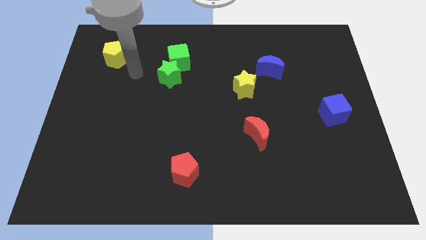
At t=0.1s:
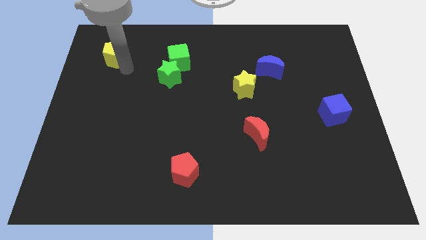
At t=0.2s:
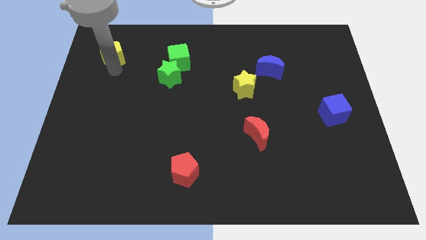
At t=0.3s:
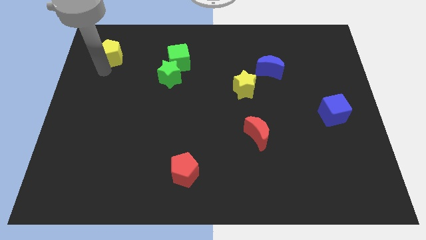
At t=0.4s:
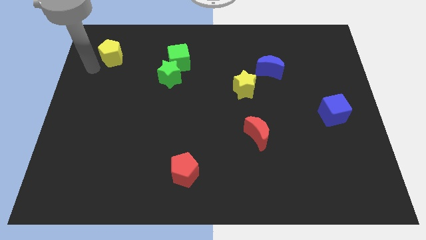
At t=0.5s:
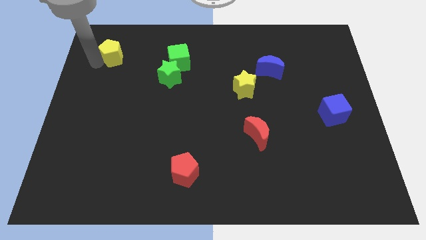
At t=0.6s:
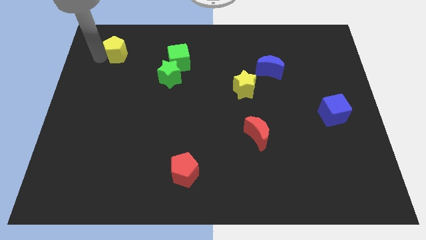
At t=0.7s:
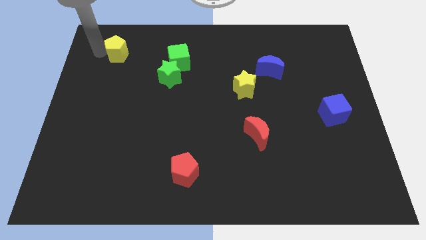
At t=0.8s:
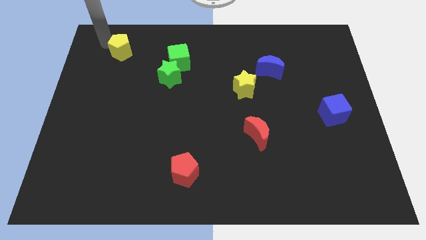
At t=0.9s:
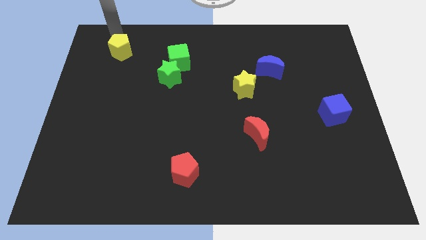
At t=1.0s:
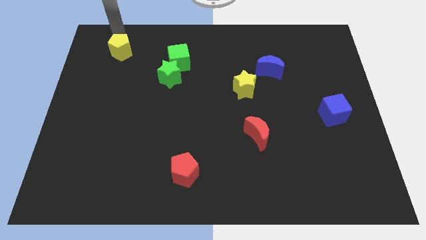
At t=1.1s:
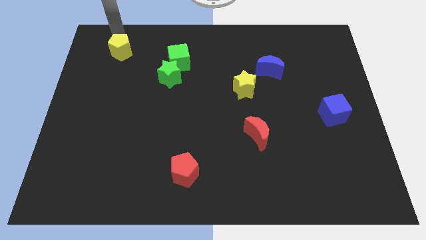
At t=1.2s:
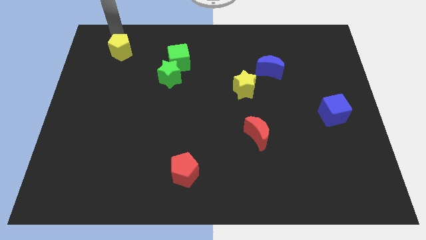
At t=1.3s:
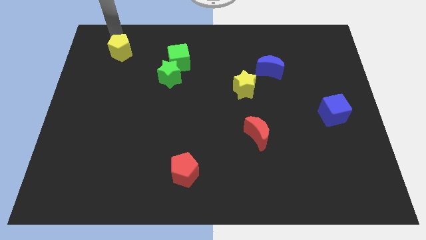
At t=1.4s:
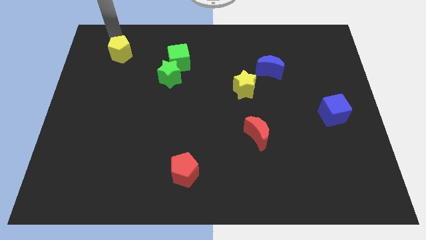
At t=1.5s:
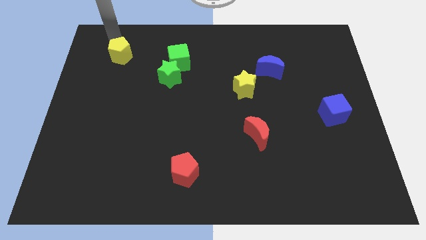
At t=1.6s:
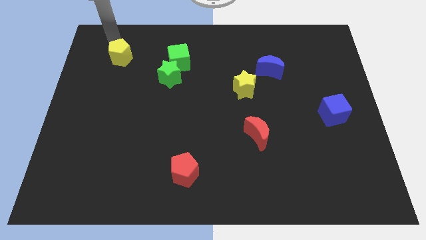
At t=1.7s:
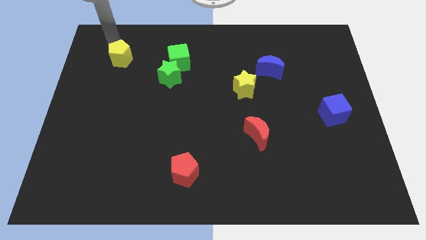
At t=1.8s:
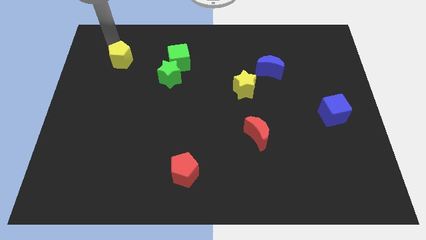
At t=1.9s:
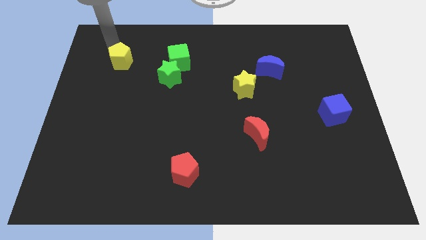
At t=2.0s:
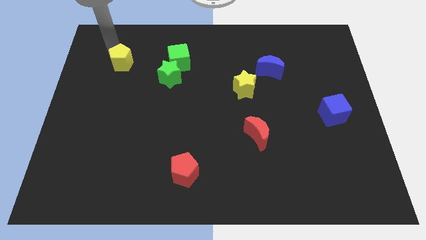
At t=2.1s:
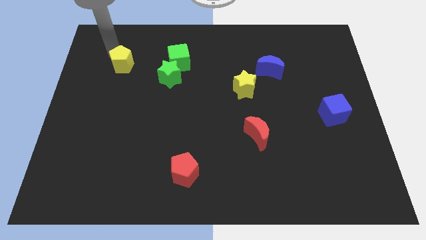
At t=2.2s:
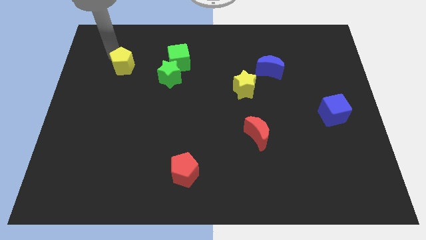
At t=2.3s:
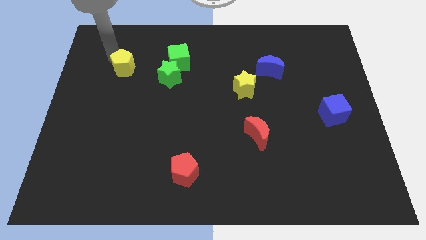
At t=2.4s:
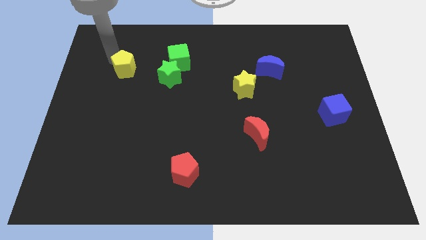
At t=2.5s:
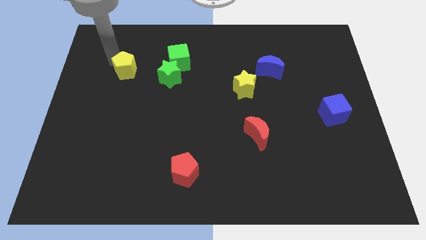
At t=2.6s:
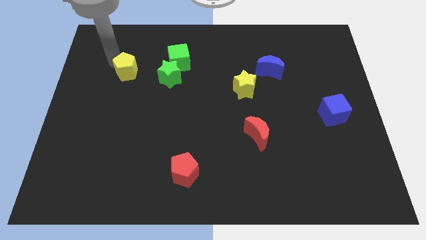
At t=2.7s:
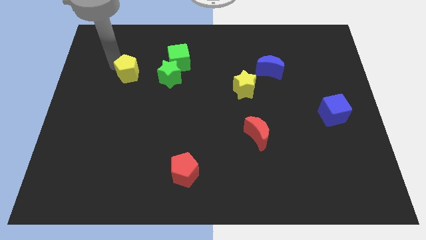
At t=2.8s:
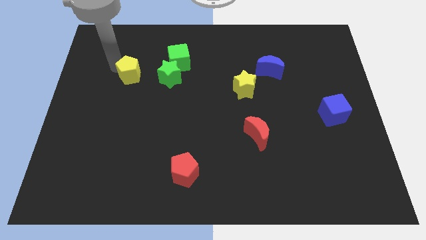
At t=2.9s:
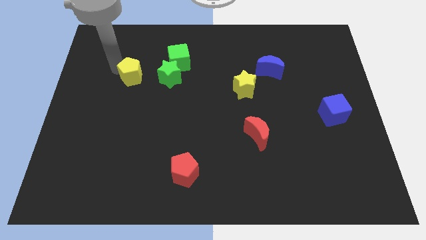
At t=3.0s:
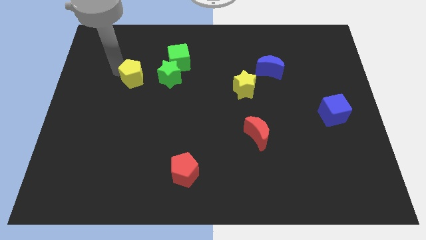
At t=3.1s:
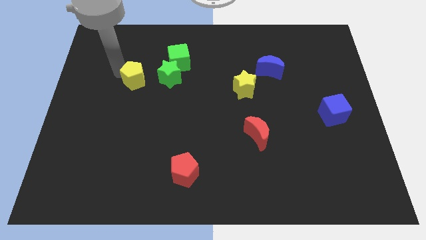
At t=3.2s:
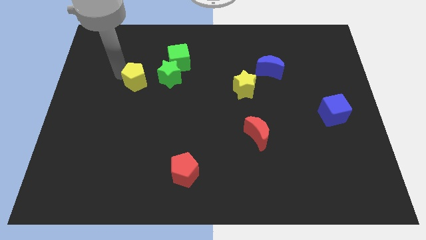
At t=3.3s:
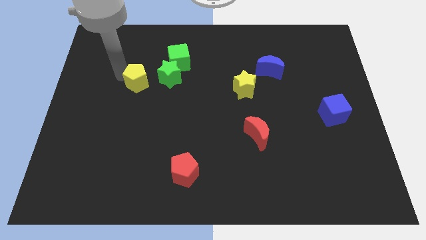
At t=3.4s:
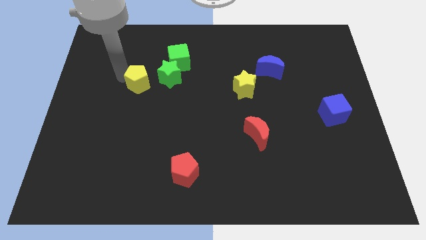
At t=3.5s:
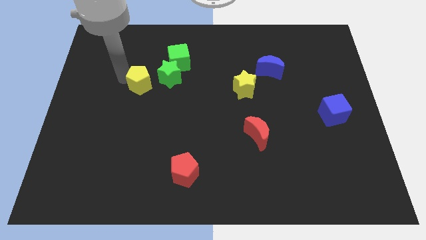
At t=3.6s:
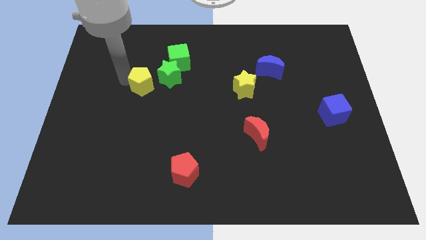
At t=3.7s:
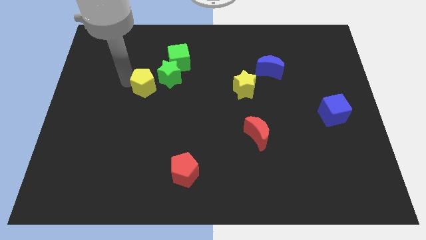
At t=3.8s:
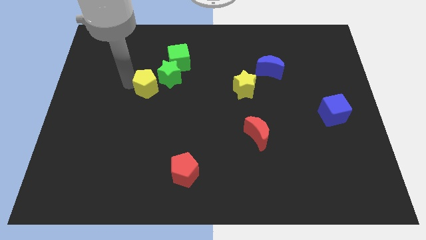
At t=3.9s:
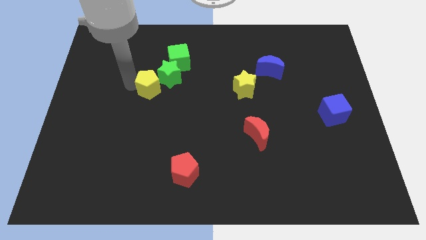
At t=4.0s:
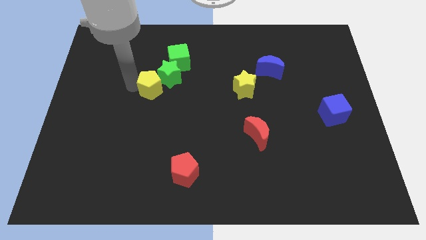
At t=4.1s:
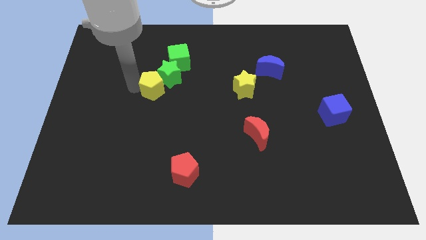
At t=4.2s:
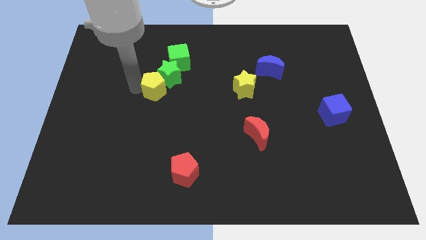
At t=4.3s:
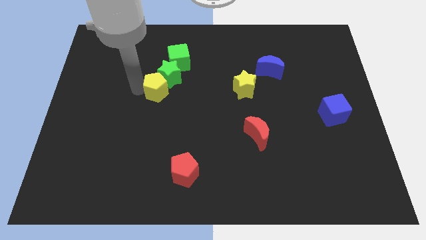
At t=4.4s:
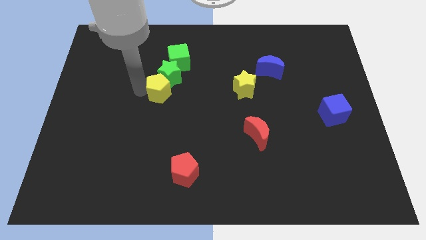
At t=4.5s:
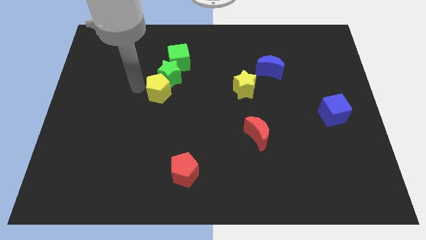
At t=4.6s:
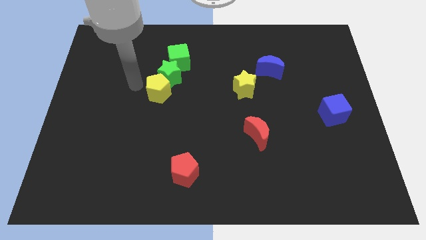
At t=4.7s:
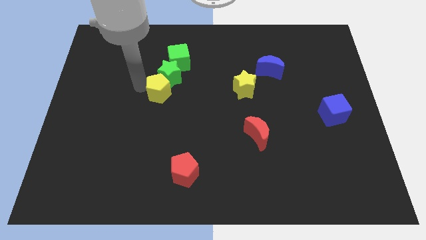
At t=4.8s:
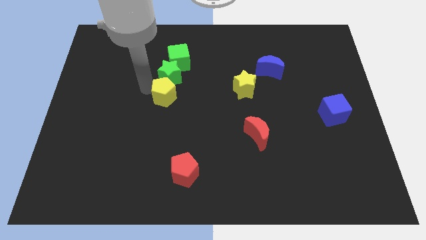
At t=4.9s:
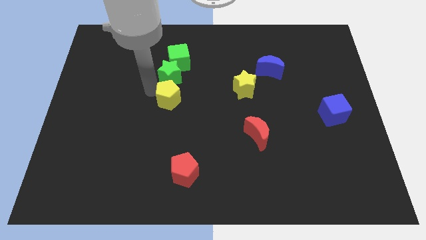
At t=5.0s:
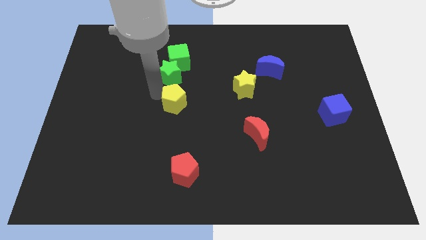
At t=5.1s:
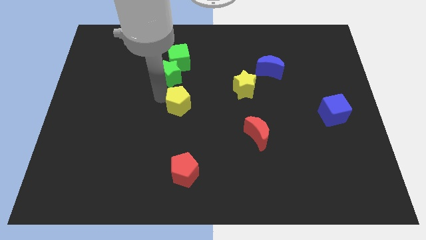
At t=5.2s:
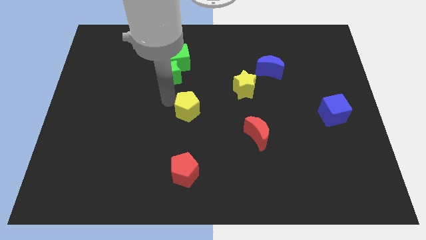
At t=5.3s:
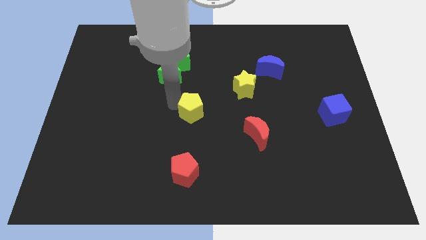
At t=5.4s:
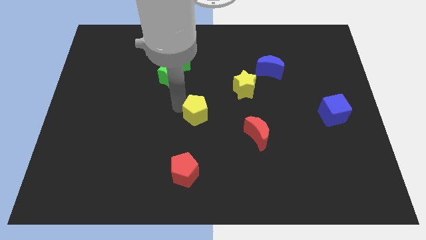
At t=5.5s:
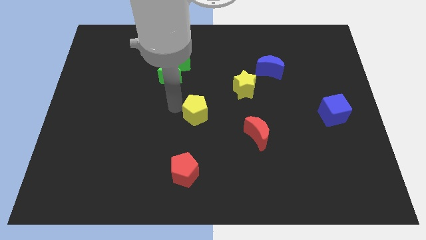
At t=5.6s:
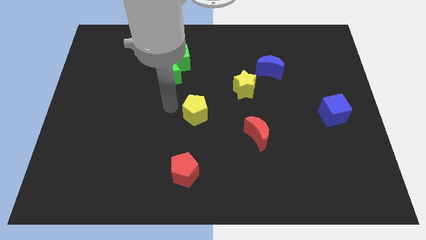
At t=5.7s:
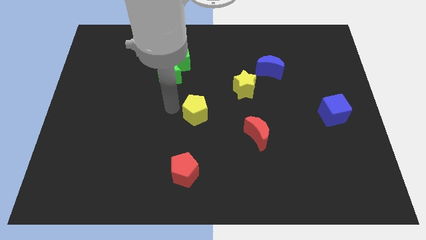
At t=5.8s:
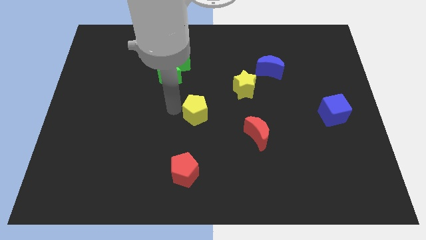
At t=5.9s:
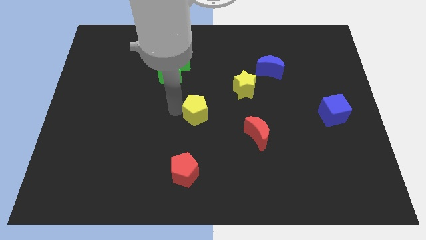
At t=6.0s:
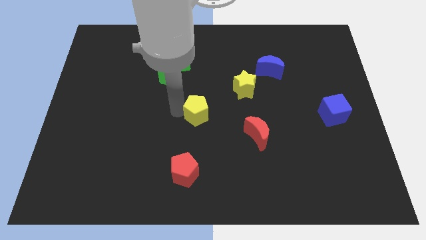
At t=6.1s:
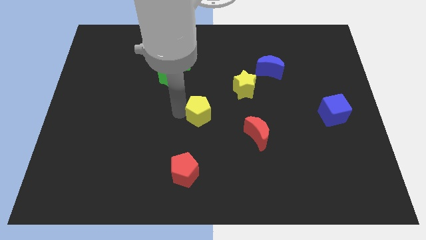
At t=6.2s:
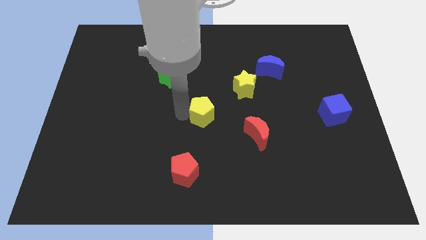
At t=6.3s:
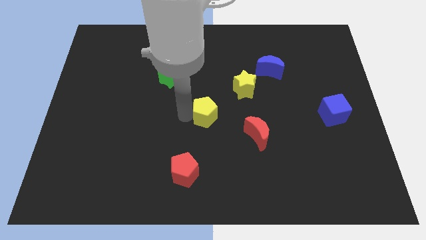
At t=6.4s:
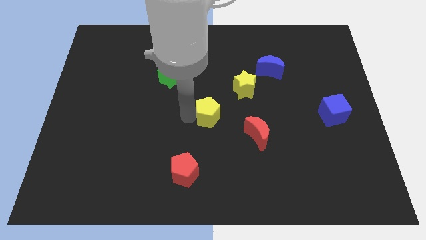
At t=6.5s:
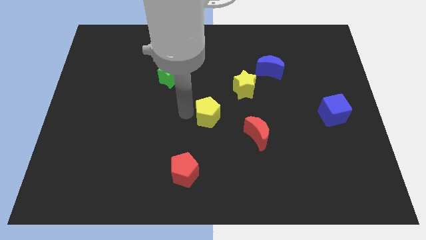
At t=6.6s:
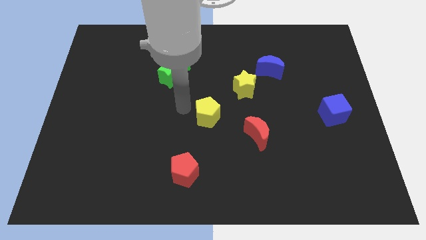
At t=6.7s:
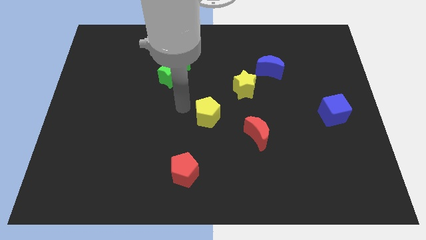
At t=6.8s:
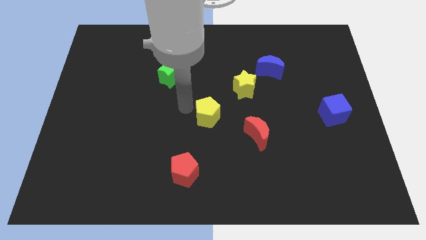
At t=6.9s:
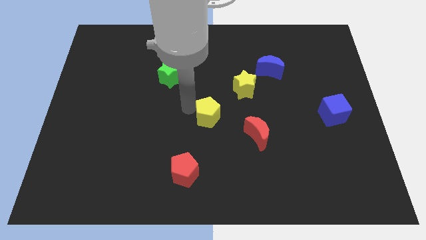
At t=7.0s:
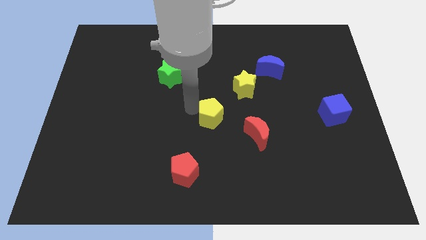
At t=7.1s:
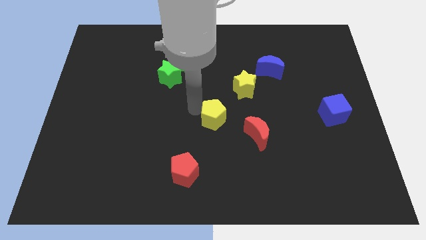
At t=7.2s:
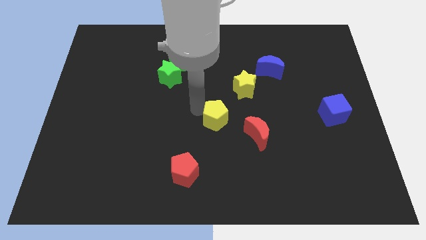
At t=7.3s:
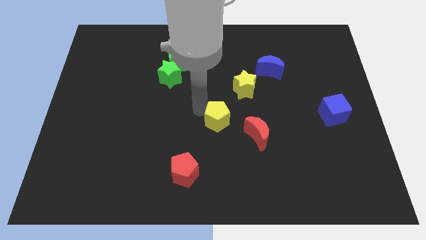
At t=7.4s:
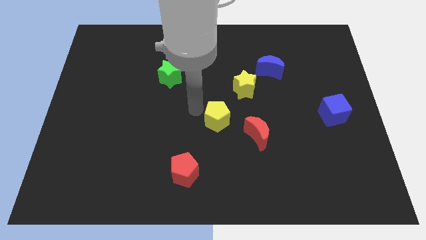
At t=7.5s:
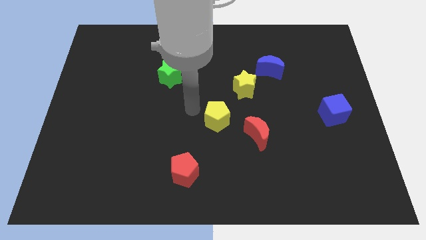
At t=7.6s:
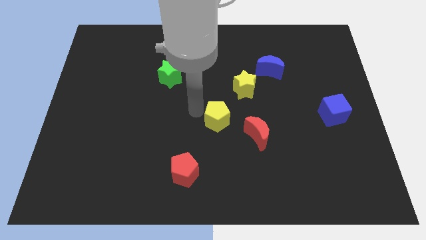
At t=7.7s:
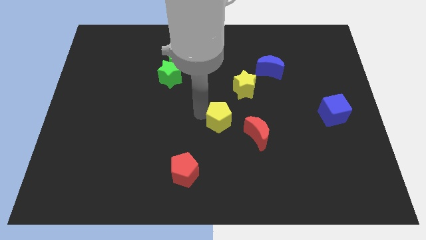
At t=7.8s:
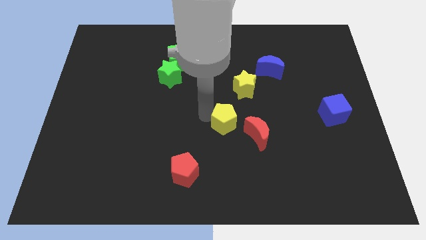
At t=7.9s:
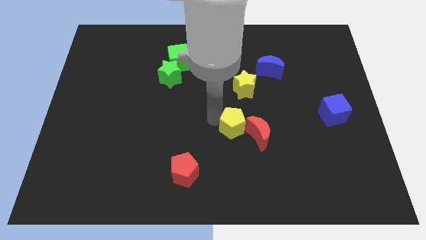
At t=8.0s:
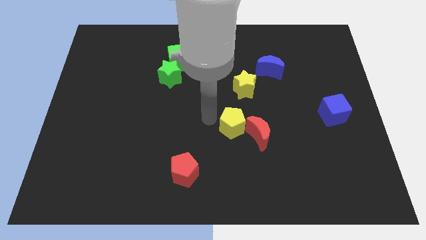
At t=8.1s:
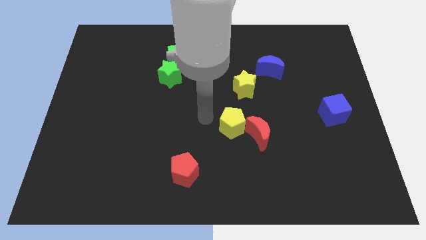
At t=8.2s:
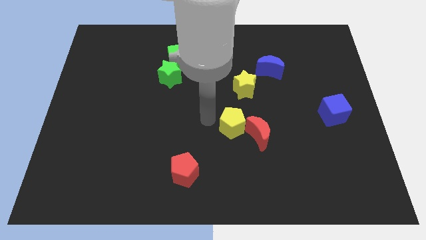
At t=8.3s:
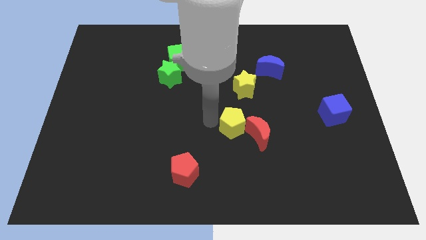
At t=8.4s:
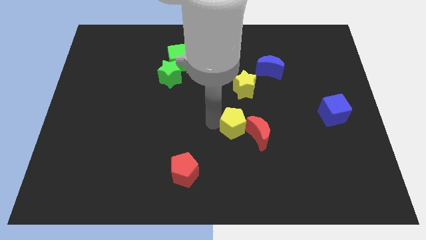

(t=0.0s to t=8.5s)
push the yellow pentagon next to the red moon
